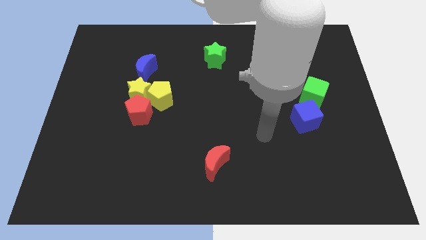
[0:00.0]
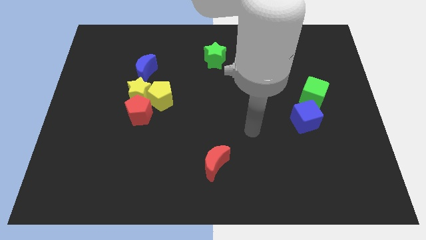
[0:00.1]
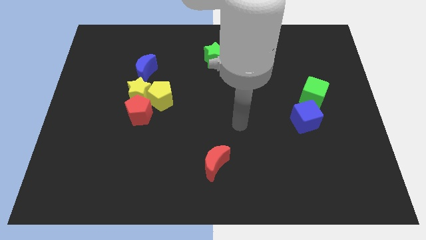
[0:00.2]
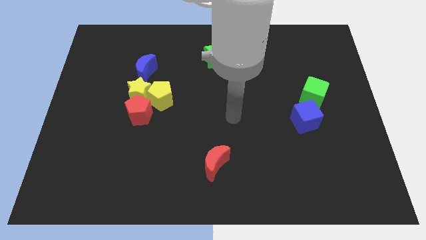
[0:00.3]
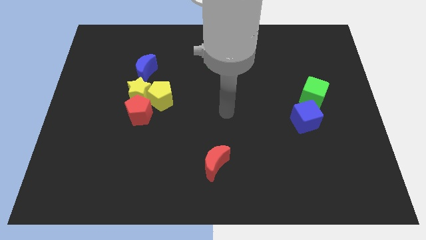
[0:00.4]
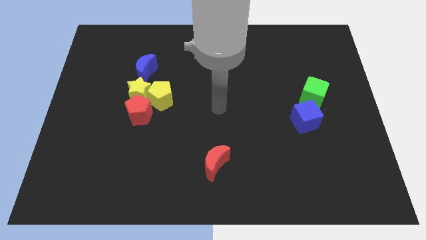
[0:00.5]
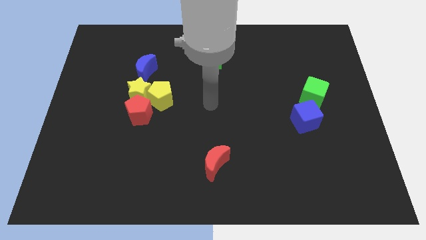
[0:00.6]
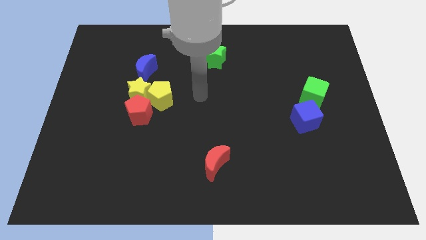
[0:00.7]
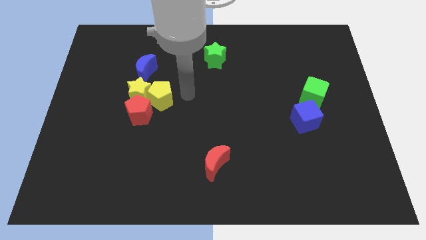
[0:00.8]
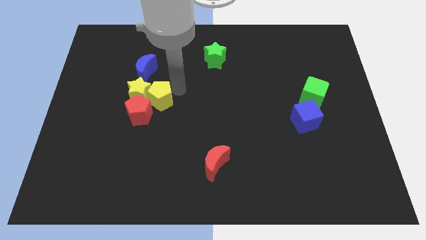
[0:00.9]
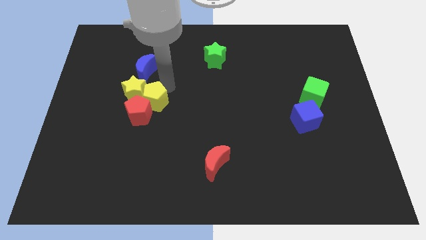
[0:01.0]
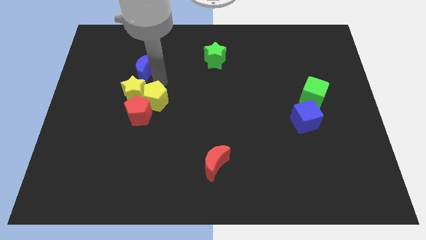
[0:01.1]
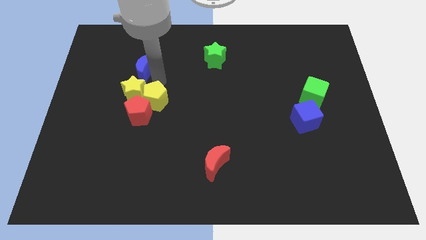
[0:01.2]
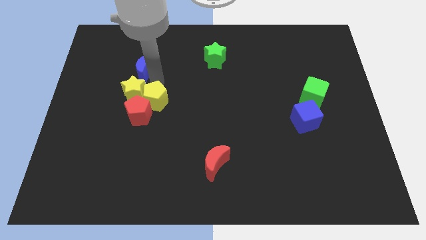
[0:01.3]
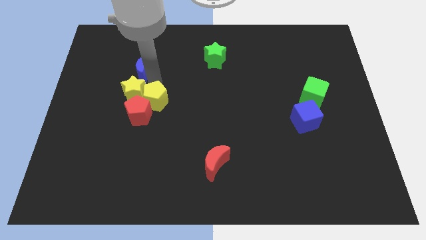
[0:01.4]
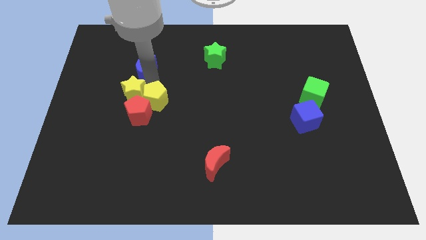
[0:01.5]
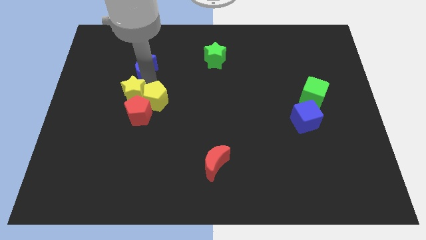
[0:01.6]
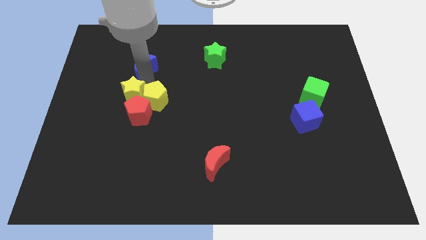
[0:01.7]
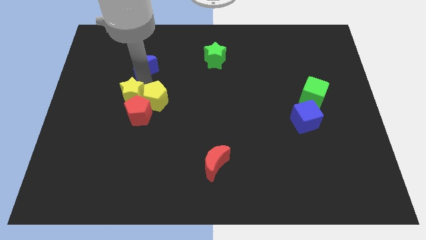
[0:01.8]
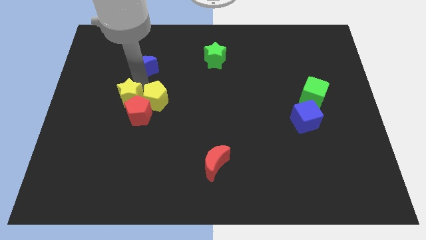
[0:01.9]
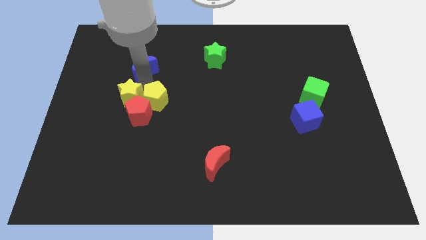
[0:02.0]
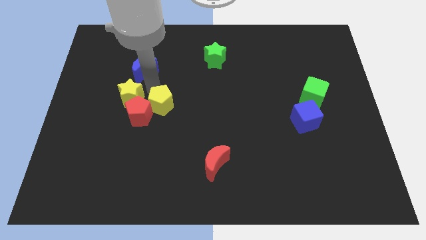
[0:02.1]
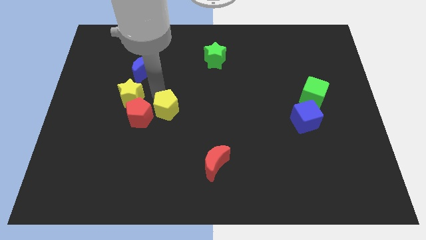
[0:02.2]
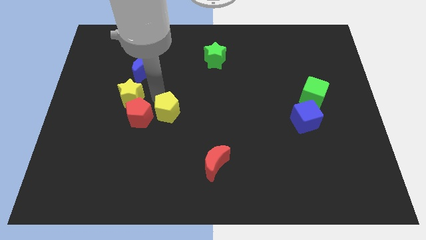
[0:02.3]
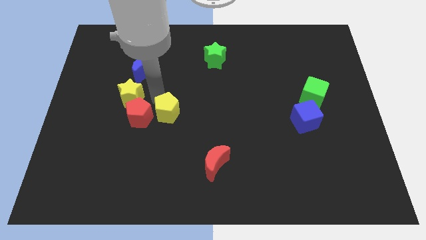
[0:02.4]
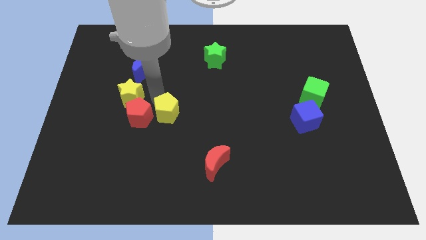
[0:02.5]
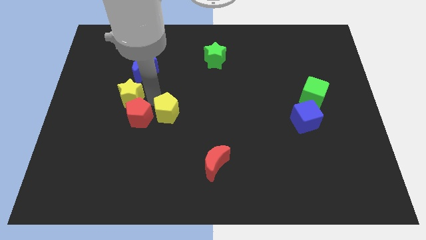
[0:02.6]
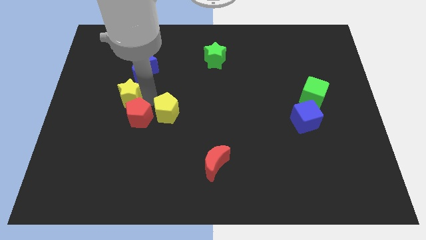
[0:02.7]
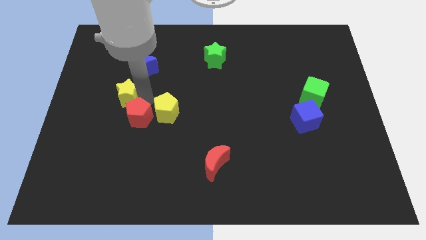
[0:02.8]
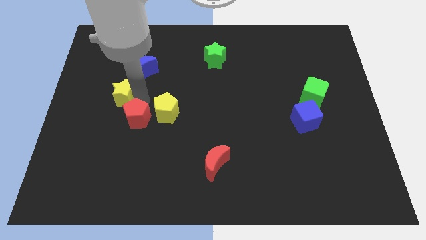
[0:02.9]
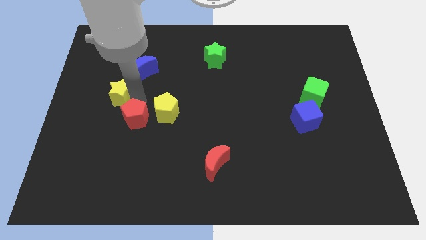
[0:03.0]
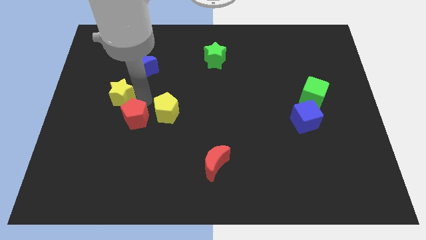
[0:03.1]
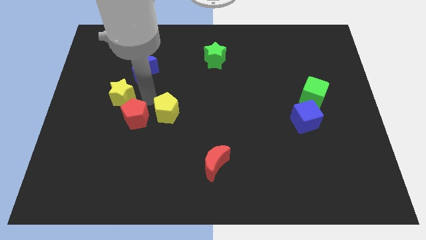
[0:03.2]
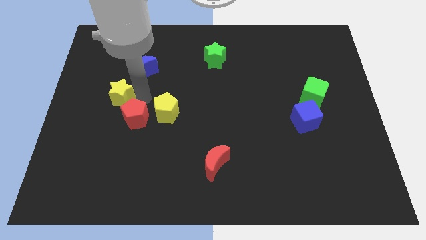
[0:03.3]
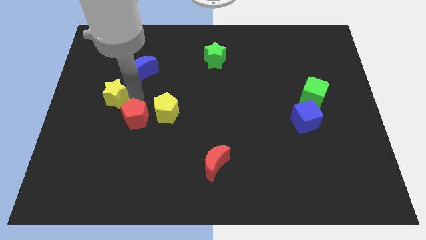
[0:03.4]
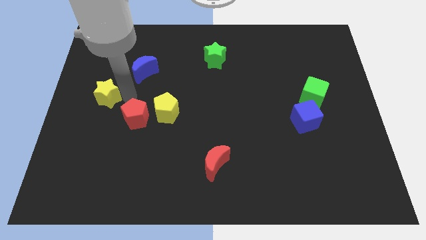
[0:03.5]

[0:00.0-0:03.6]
separate the yellow star from the group

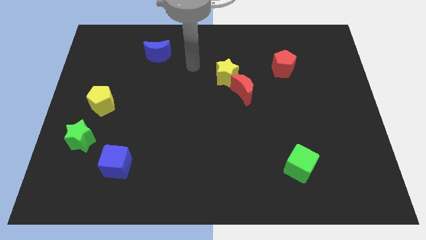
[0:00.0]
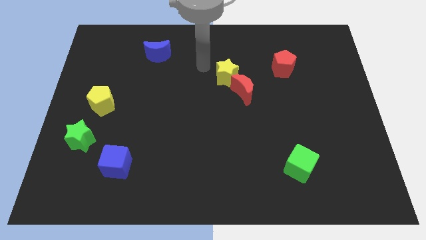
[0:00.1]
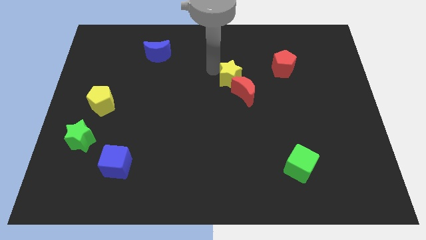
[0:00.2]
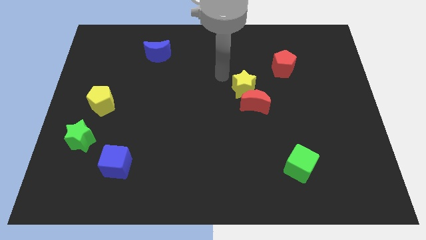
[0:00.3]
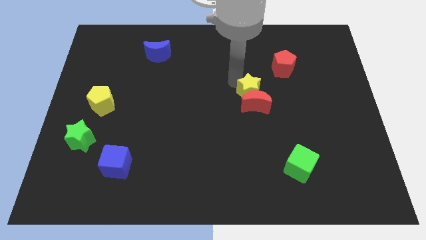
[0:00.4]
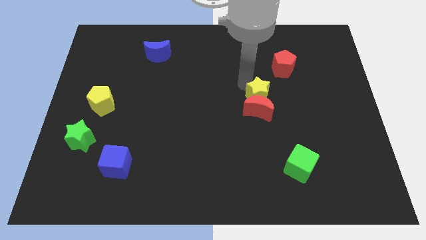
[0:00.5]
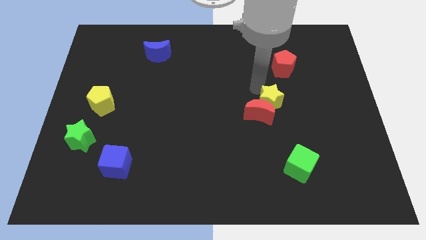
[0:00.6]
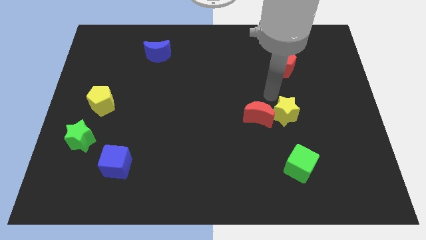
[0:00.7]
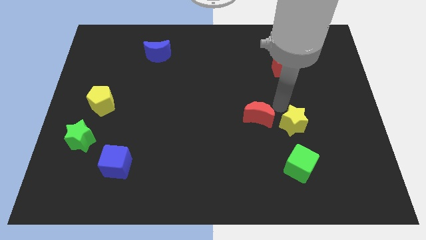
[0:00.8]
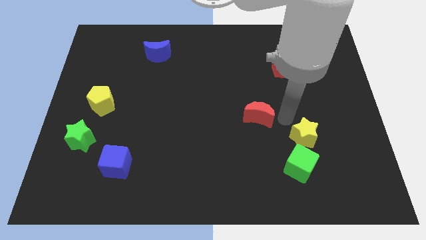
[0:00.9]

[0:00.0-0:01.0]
move the red moon away from the yellow star

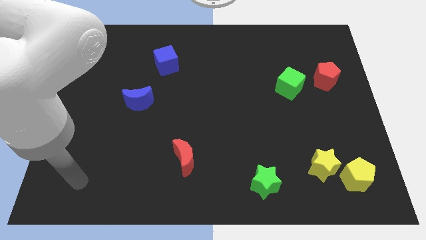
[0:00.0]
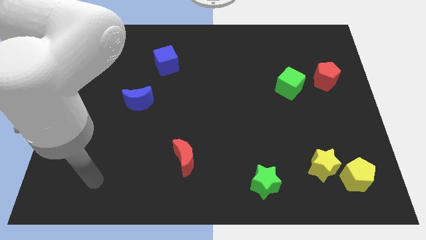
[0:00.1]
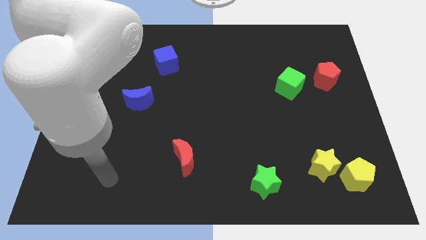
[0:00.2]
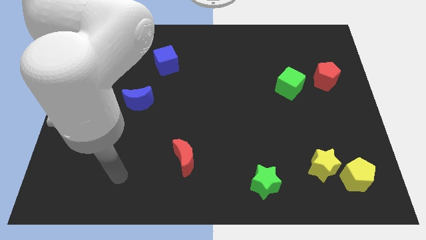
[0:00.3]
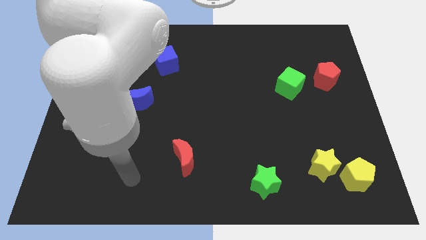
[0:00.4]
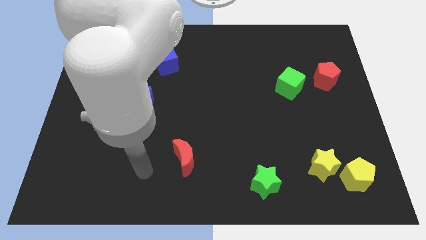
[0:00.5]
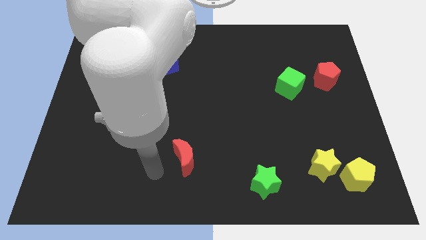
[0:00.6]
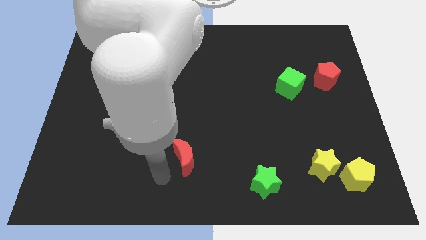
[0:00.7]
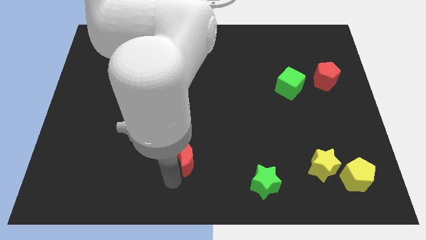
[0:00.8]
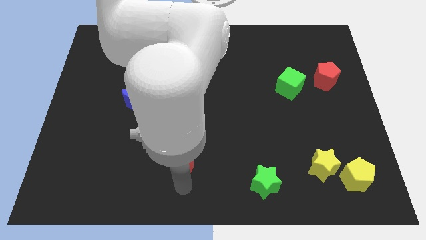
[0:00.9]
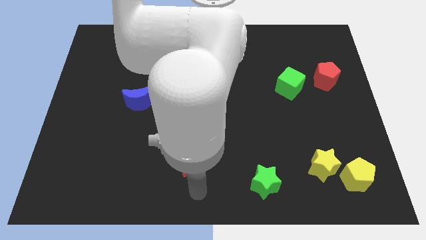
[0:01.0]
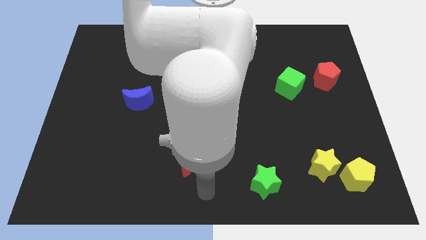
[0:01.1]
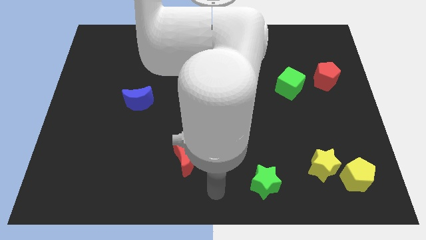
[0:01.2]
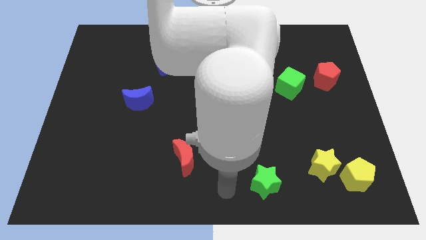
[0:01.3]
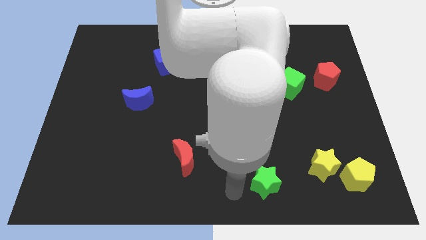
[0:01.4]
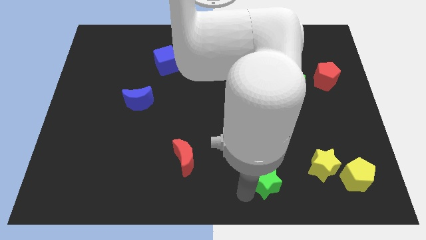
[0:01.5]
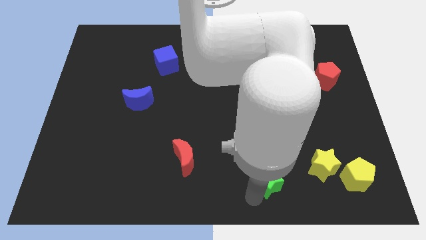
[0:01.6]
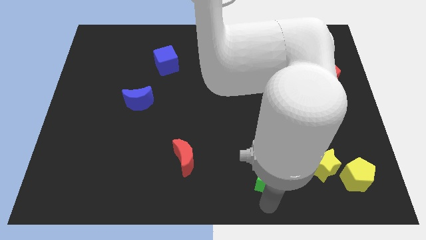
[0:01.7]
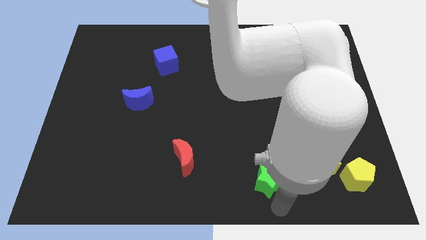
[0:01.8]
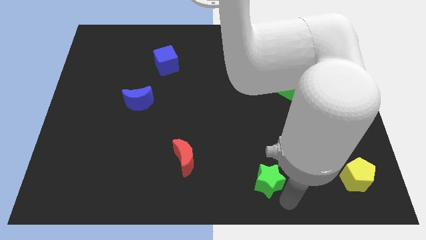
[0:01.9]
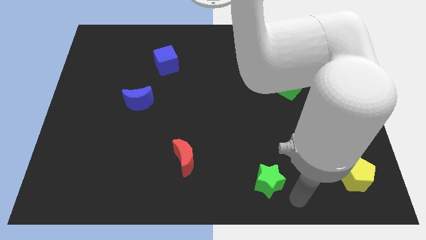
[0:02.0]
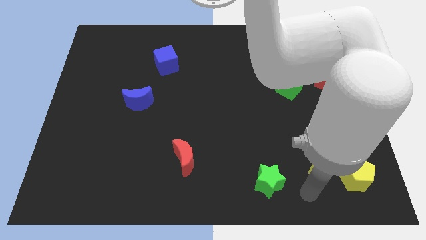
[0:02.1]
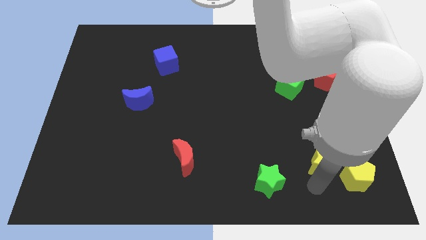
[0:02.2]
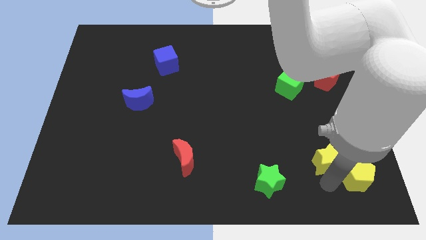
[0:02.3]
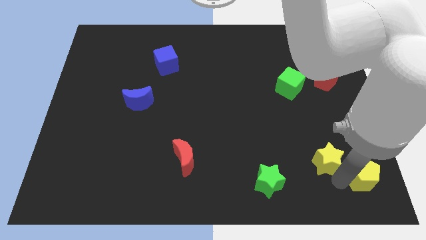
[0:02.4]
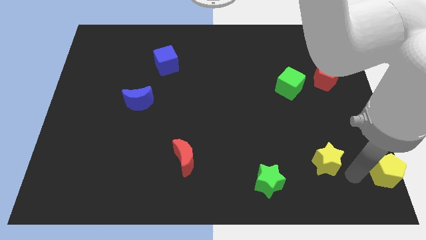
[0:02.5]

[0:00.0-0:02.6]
separate the yellow star from the yellow pentagon

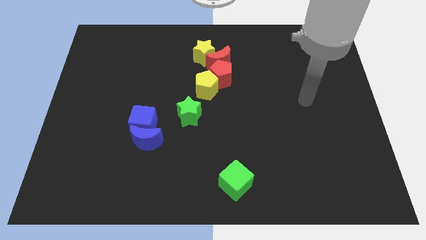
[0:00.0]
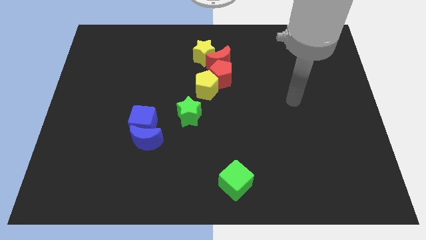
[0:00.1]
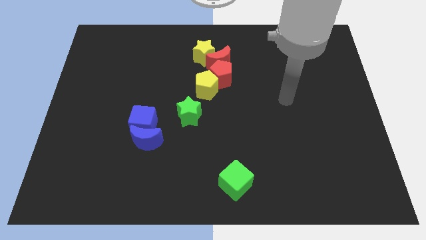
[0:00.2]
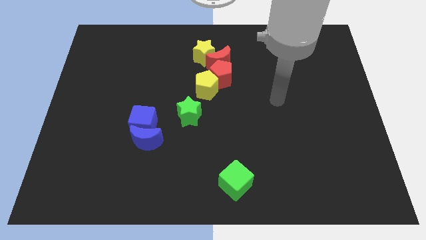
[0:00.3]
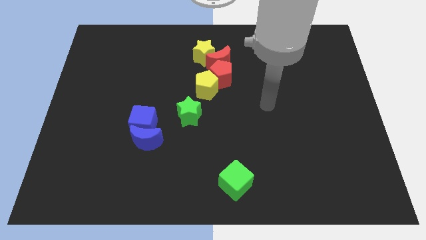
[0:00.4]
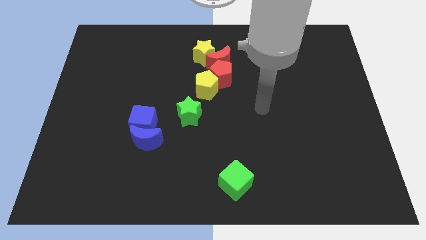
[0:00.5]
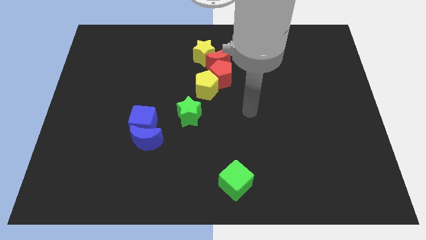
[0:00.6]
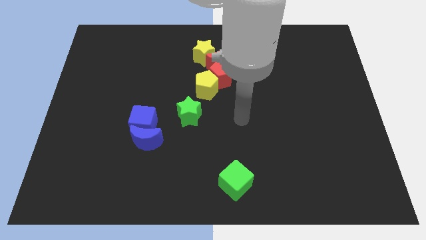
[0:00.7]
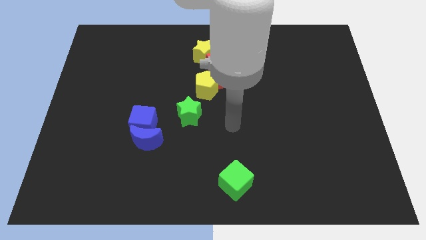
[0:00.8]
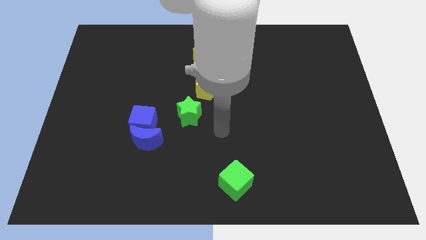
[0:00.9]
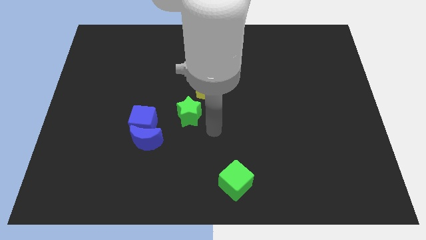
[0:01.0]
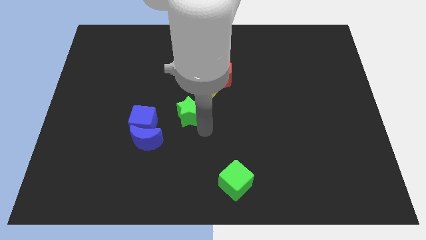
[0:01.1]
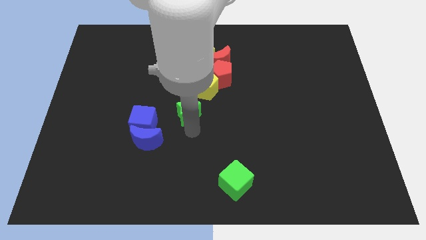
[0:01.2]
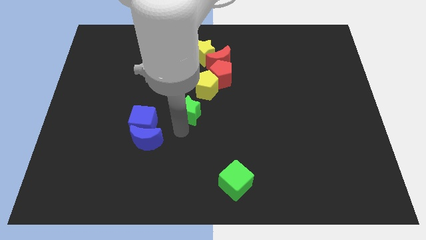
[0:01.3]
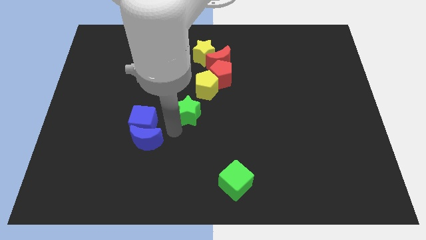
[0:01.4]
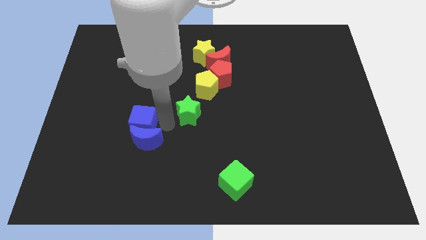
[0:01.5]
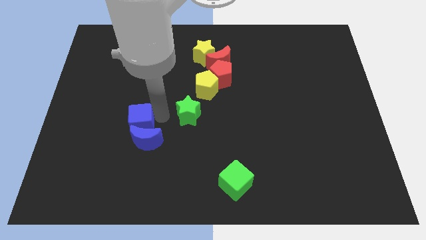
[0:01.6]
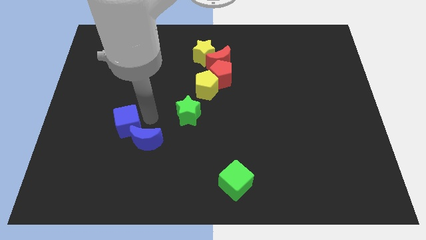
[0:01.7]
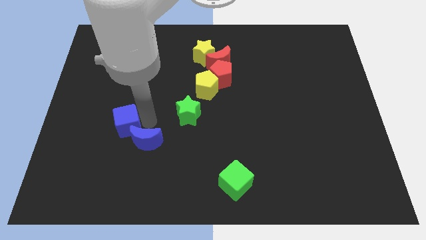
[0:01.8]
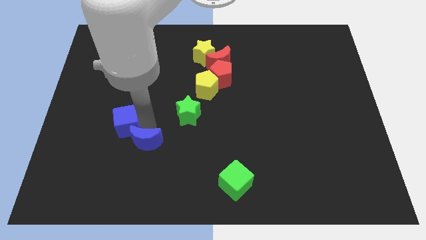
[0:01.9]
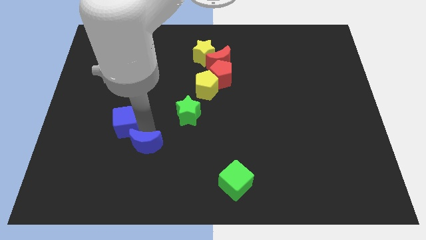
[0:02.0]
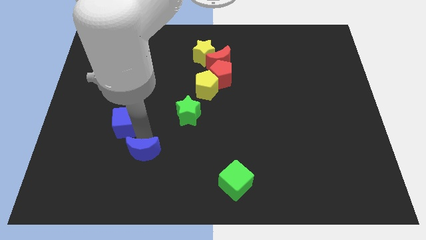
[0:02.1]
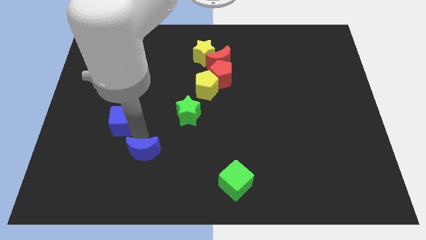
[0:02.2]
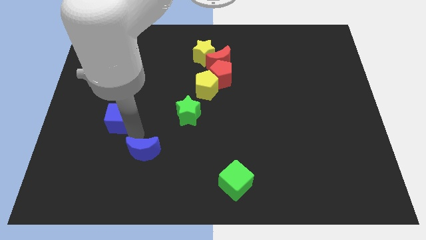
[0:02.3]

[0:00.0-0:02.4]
separate the blue moon from the blue cube
